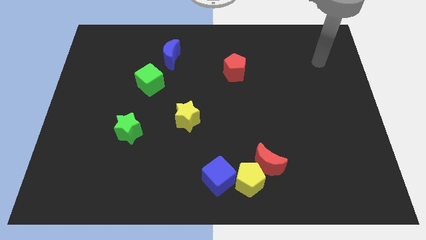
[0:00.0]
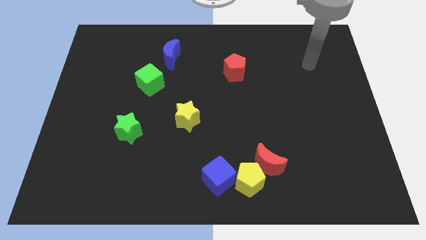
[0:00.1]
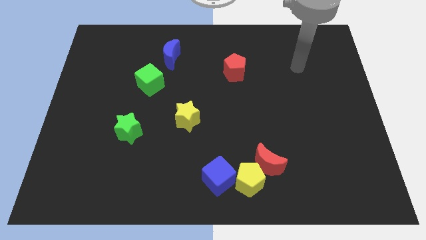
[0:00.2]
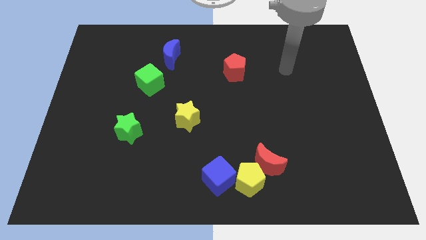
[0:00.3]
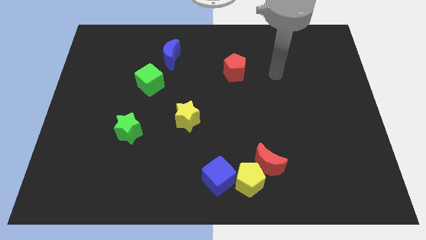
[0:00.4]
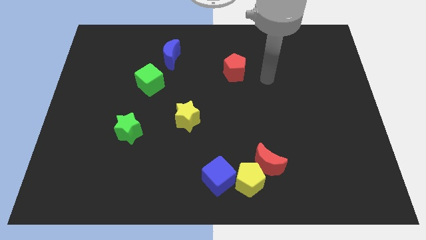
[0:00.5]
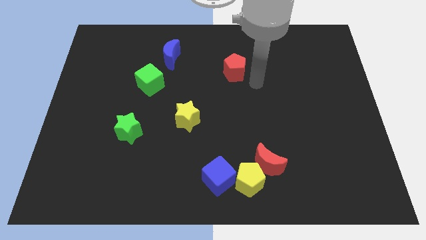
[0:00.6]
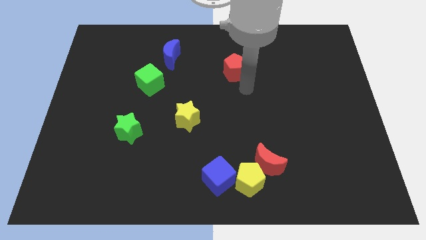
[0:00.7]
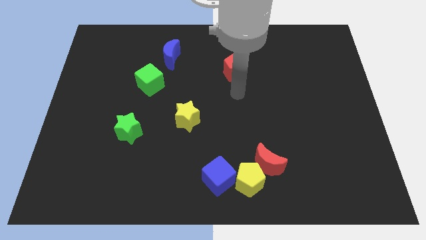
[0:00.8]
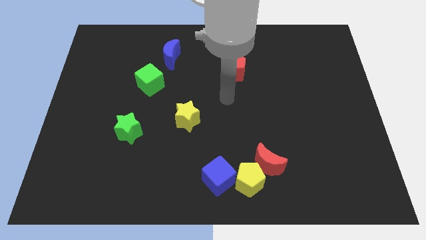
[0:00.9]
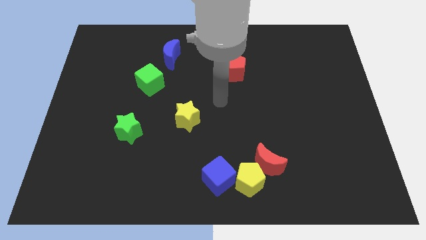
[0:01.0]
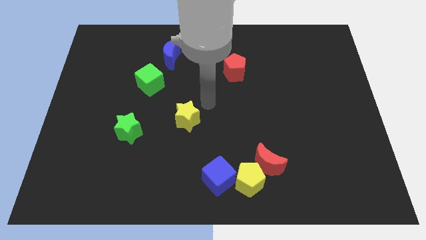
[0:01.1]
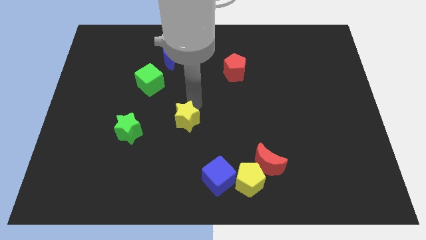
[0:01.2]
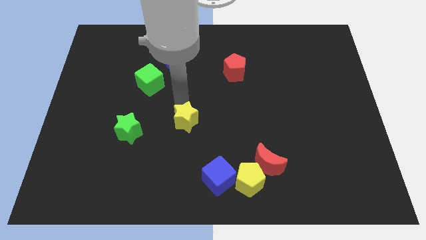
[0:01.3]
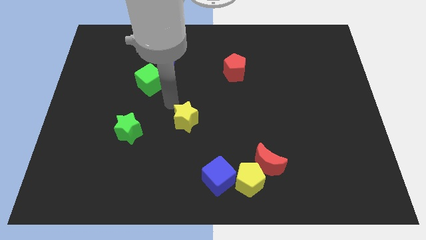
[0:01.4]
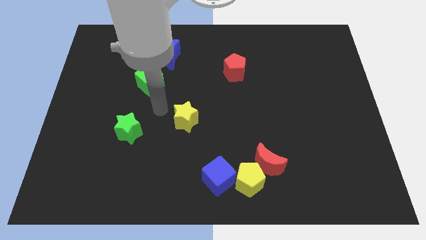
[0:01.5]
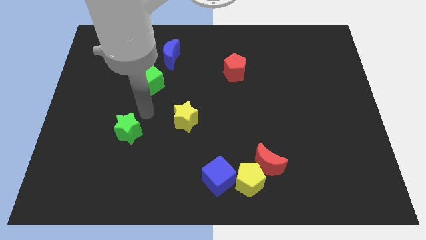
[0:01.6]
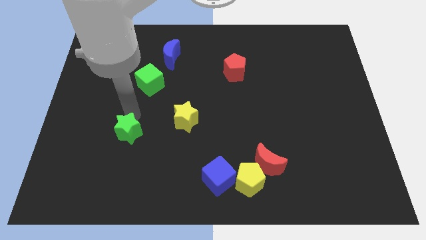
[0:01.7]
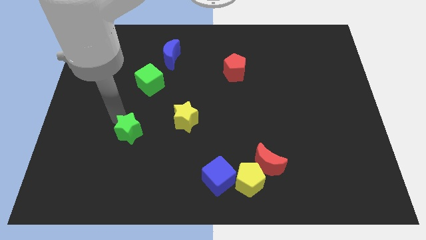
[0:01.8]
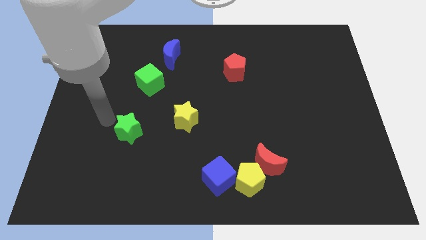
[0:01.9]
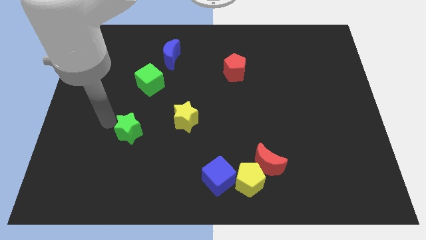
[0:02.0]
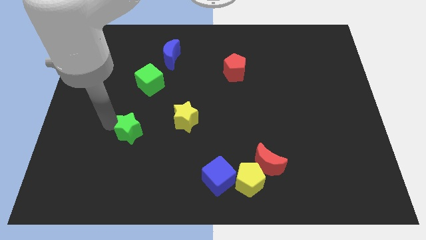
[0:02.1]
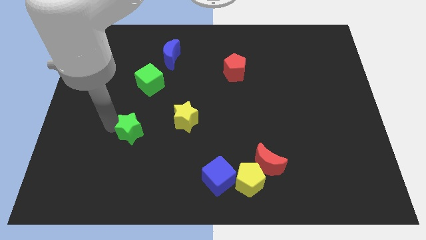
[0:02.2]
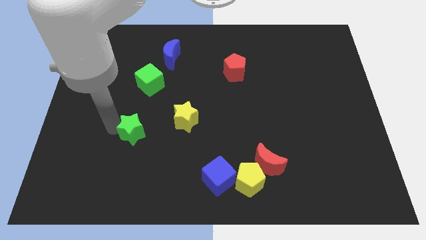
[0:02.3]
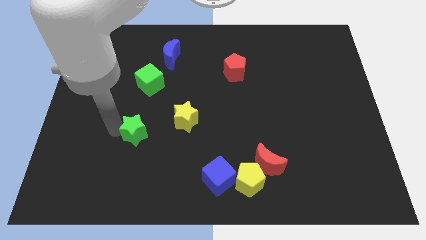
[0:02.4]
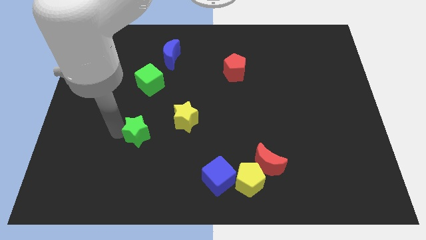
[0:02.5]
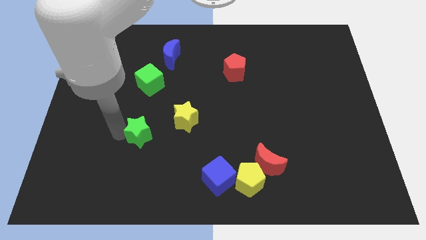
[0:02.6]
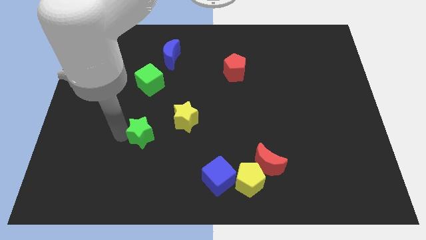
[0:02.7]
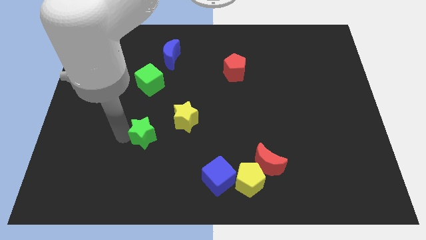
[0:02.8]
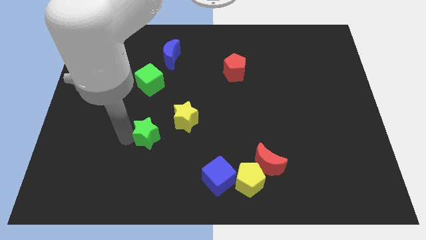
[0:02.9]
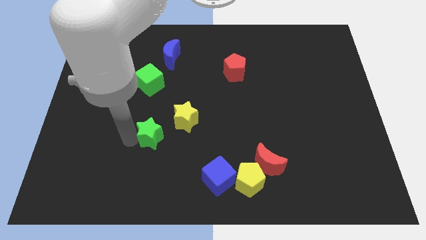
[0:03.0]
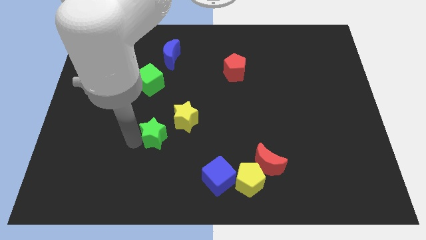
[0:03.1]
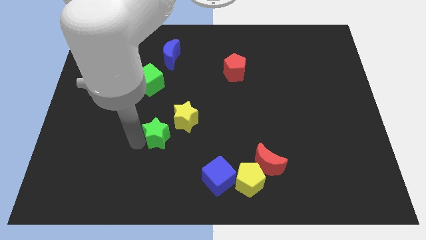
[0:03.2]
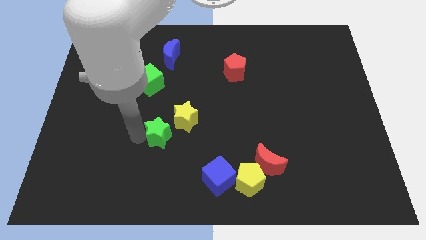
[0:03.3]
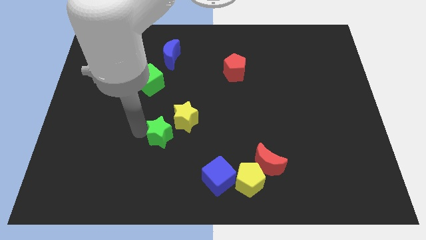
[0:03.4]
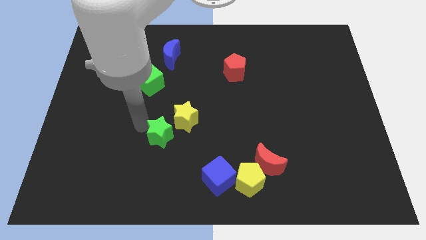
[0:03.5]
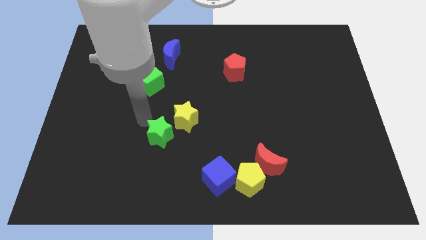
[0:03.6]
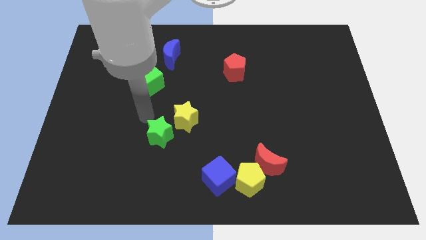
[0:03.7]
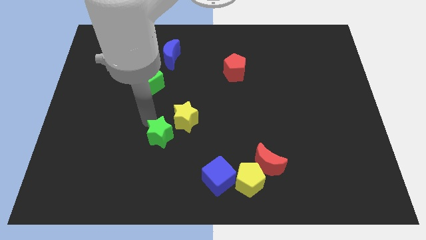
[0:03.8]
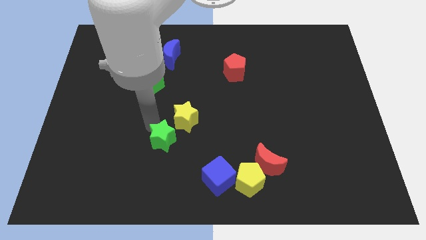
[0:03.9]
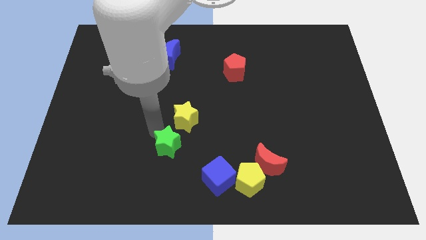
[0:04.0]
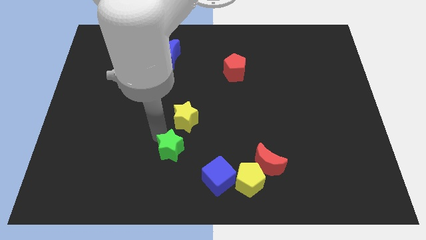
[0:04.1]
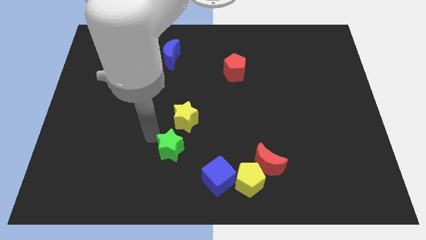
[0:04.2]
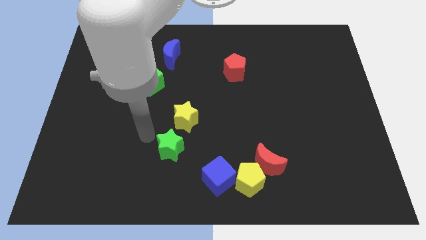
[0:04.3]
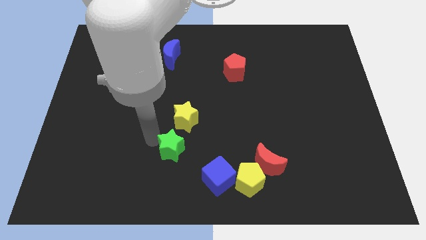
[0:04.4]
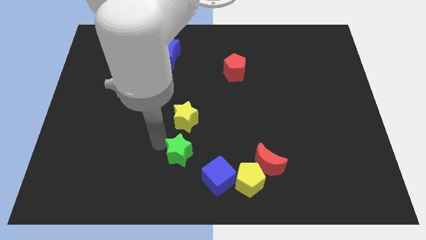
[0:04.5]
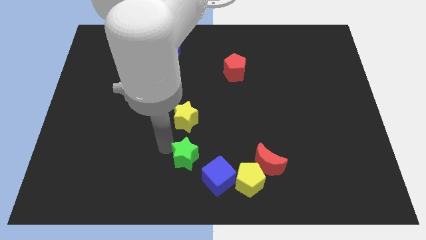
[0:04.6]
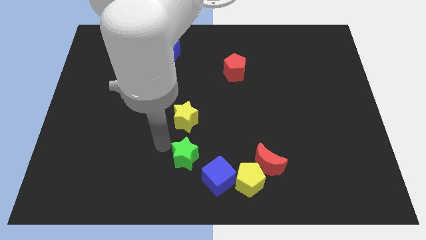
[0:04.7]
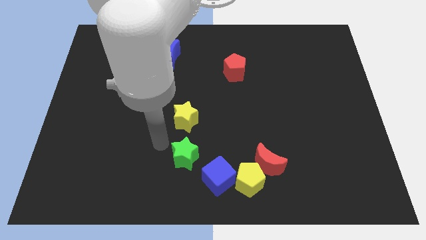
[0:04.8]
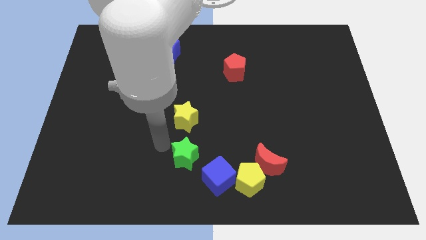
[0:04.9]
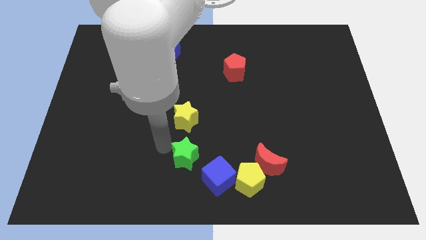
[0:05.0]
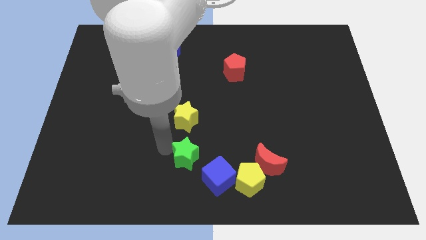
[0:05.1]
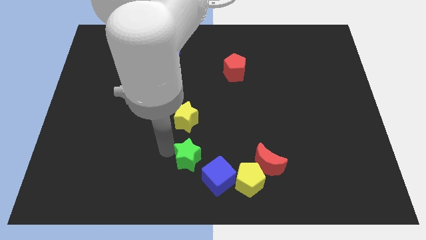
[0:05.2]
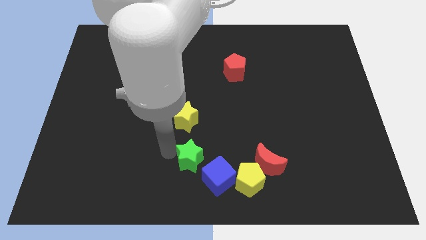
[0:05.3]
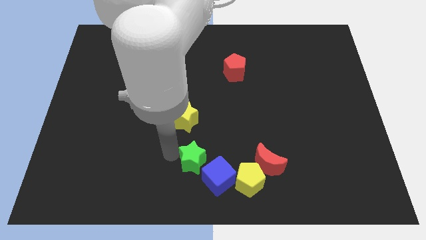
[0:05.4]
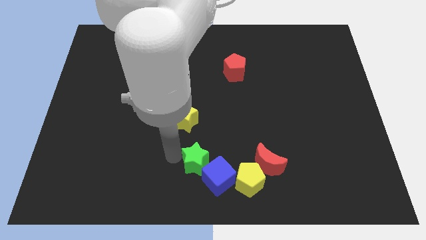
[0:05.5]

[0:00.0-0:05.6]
slide the green star close to the blue cube

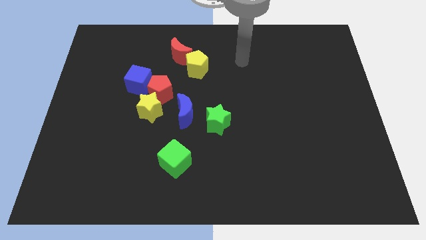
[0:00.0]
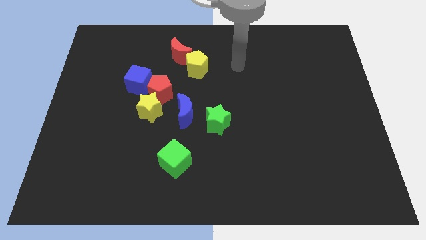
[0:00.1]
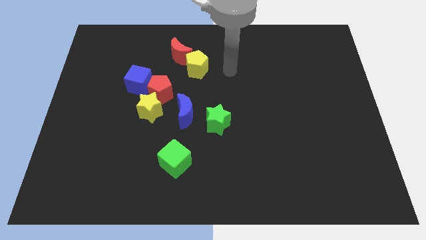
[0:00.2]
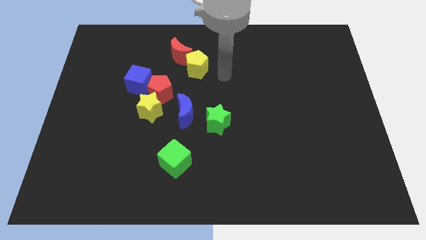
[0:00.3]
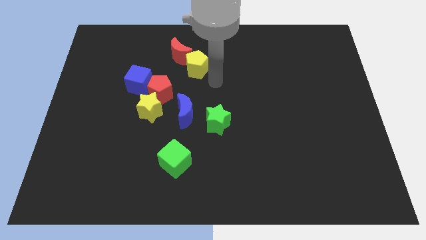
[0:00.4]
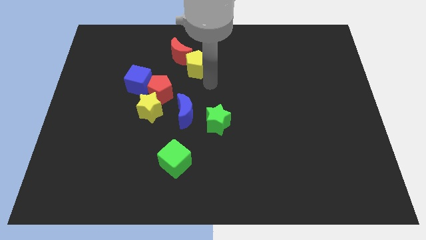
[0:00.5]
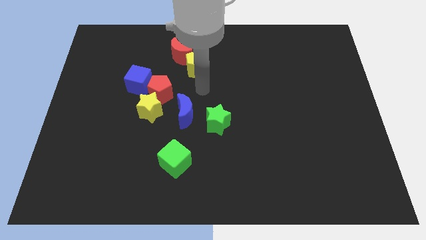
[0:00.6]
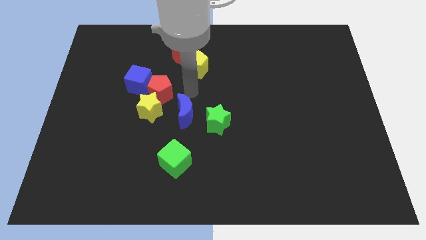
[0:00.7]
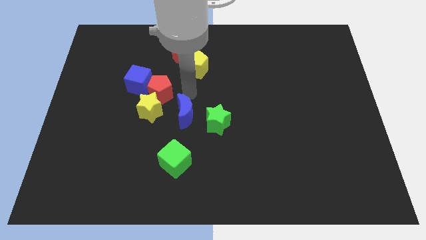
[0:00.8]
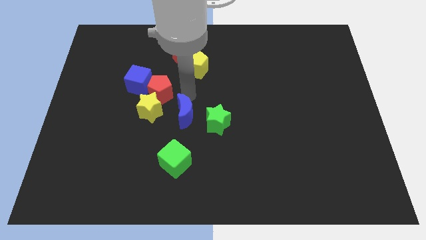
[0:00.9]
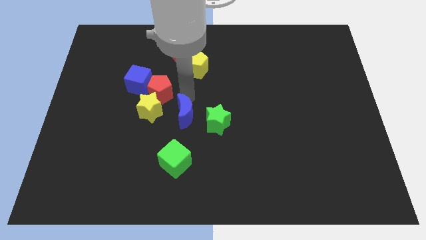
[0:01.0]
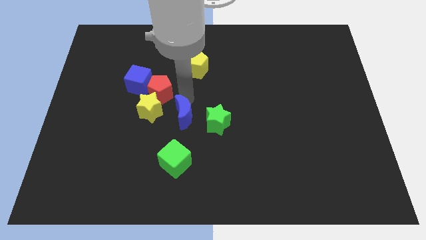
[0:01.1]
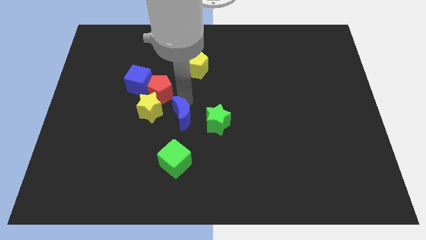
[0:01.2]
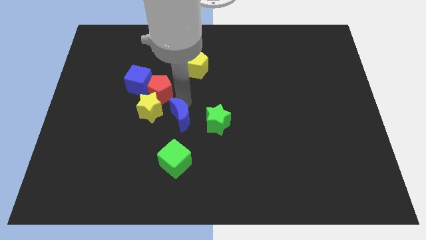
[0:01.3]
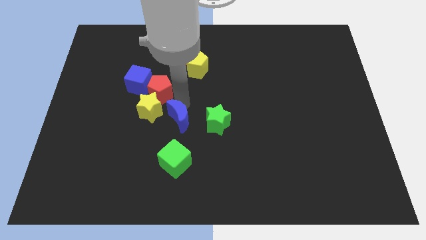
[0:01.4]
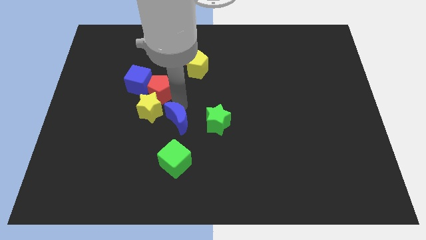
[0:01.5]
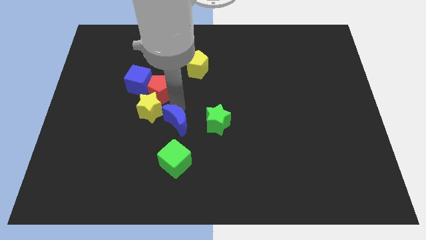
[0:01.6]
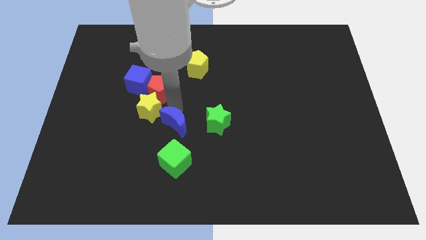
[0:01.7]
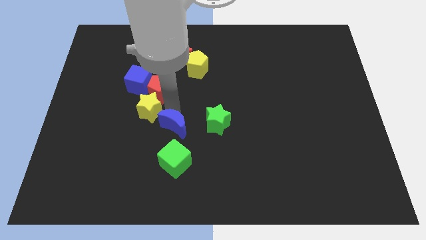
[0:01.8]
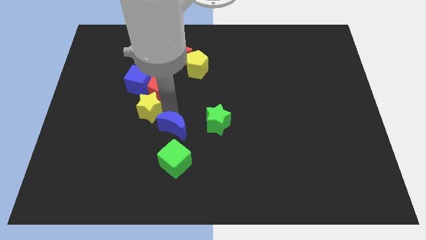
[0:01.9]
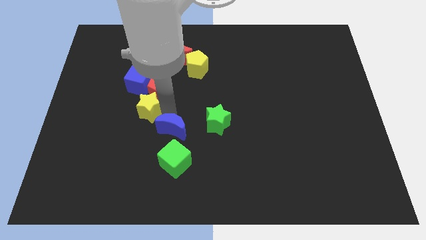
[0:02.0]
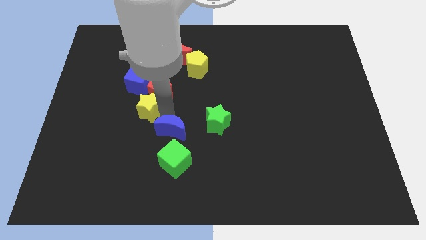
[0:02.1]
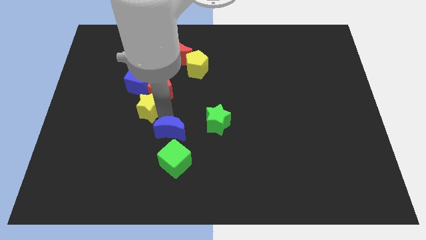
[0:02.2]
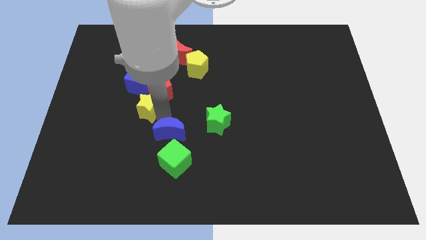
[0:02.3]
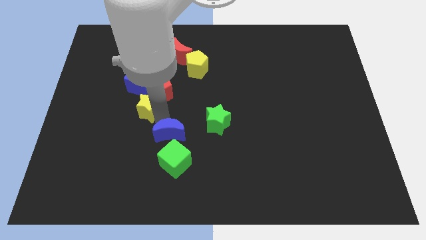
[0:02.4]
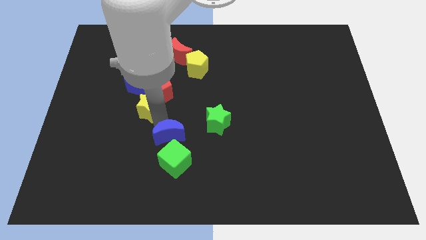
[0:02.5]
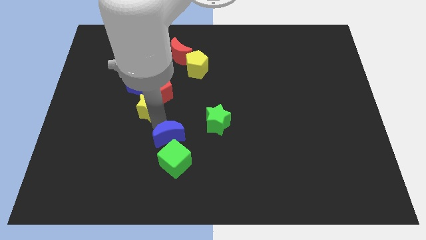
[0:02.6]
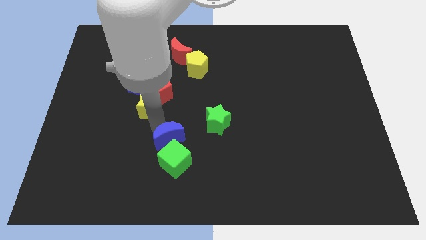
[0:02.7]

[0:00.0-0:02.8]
push the blue moon towards the green cube
